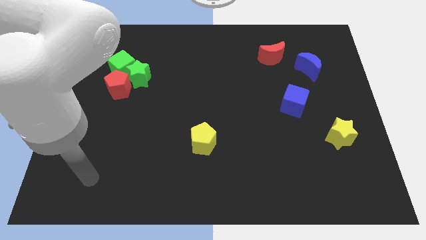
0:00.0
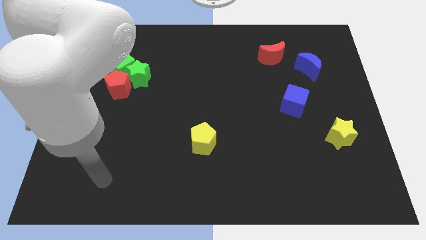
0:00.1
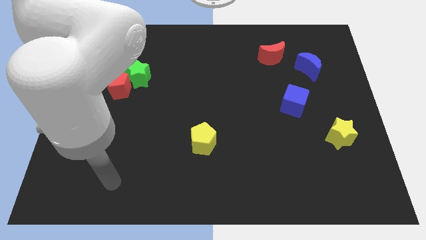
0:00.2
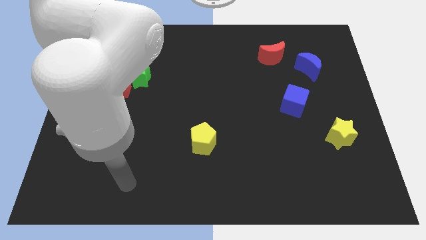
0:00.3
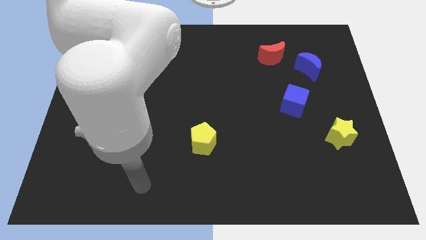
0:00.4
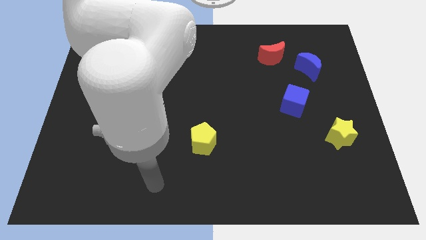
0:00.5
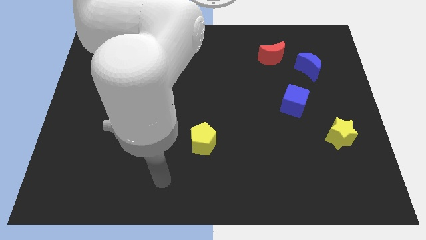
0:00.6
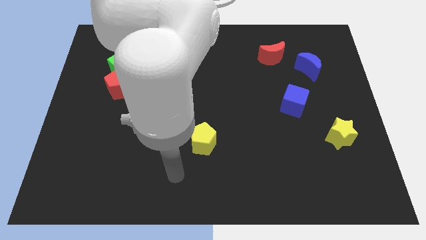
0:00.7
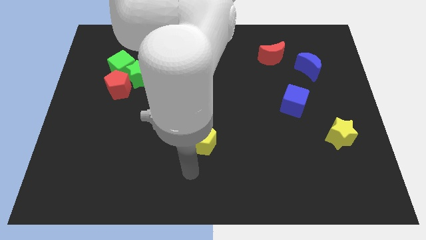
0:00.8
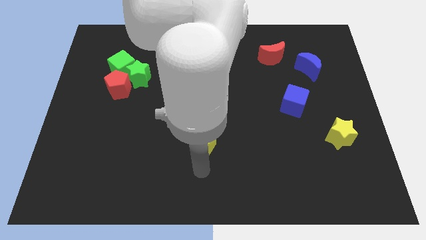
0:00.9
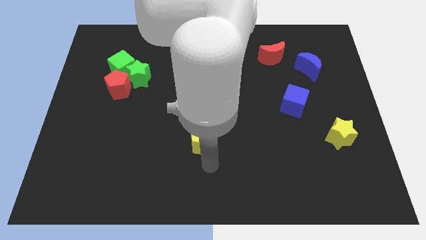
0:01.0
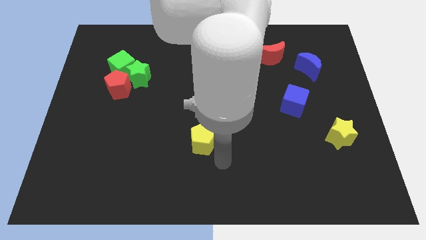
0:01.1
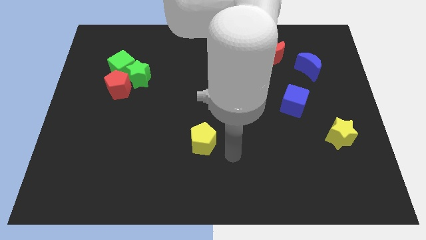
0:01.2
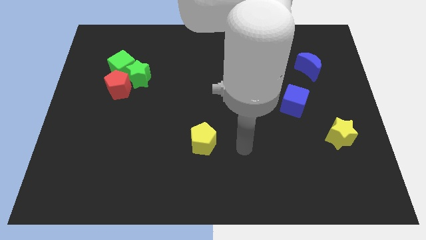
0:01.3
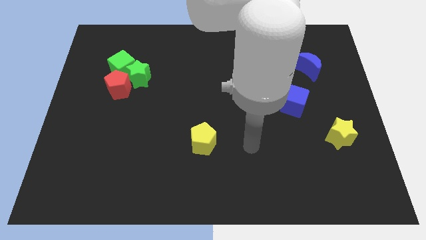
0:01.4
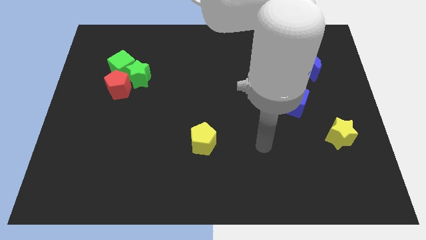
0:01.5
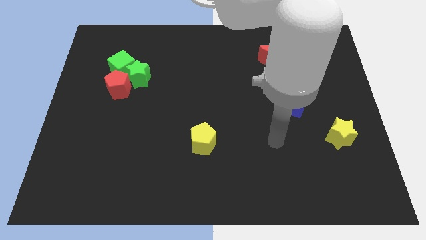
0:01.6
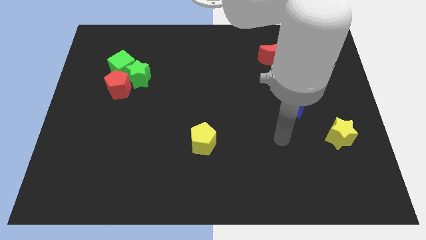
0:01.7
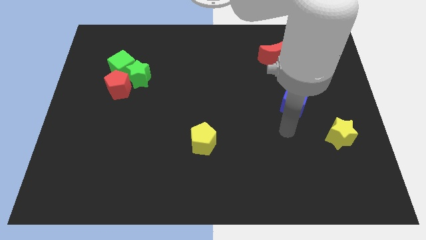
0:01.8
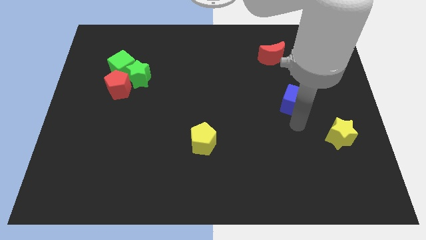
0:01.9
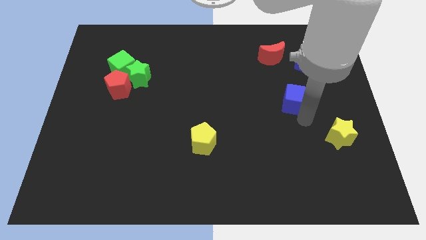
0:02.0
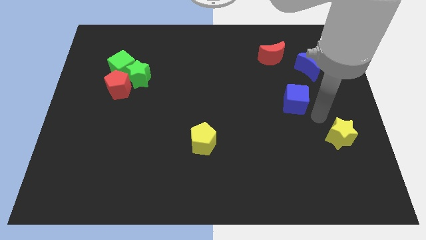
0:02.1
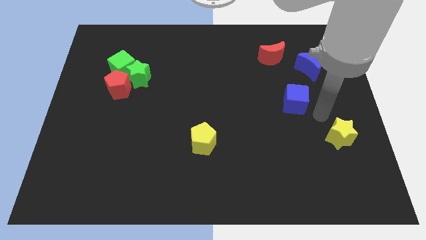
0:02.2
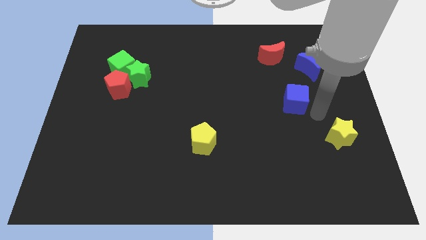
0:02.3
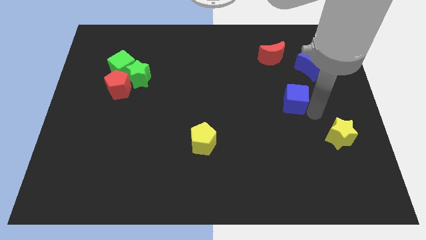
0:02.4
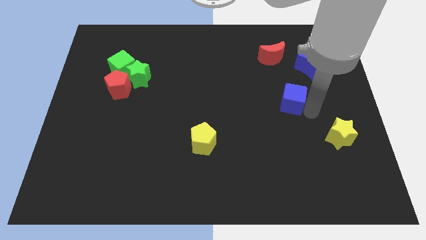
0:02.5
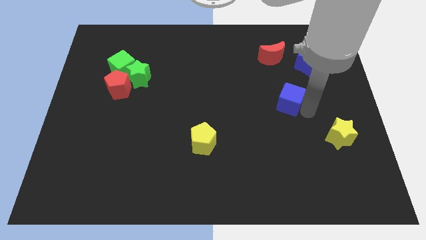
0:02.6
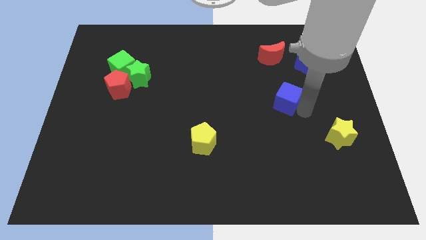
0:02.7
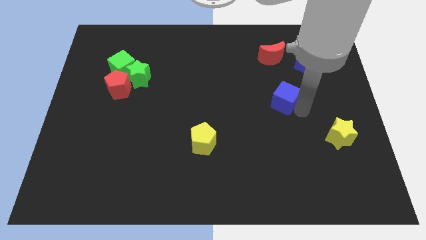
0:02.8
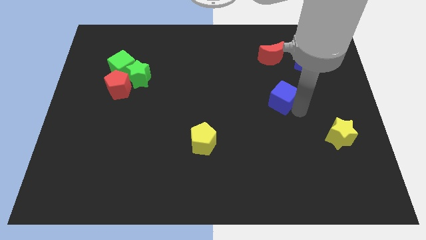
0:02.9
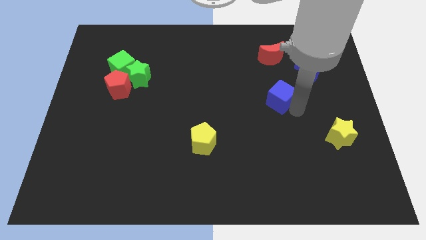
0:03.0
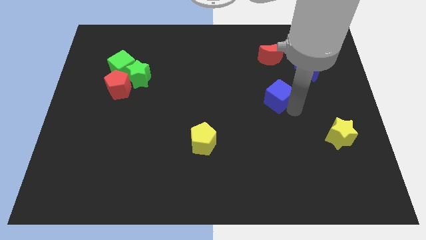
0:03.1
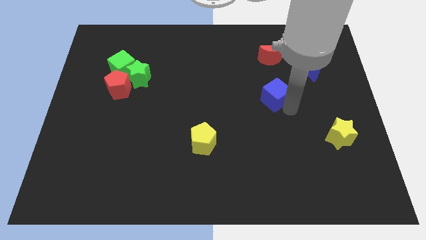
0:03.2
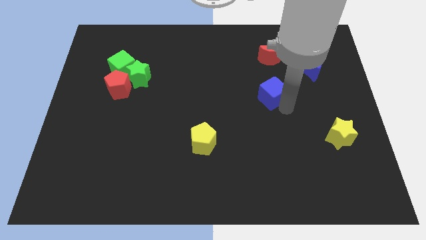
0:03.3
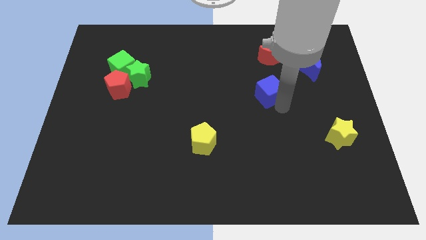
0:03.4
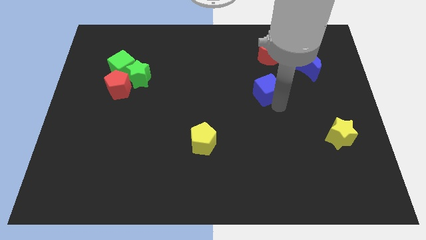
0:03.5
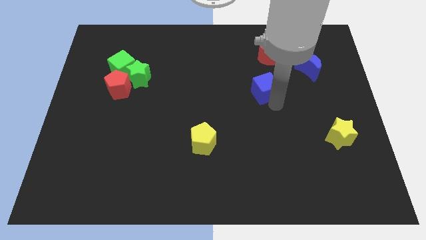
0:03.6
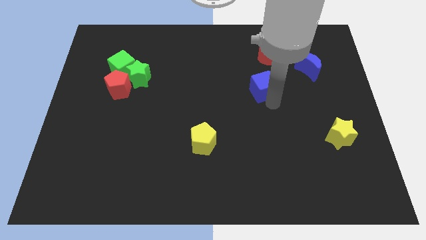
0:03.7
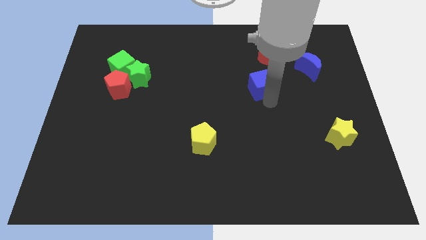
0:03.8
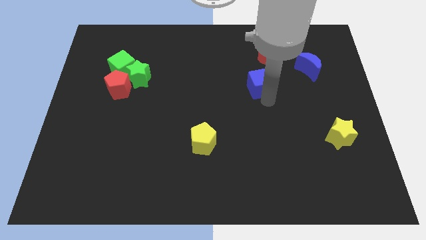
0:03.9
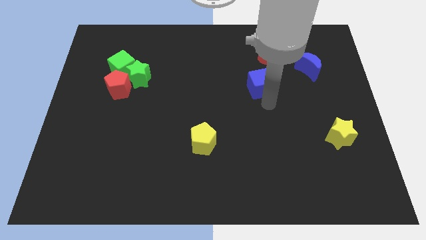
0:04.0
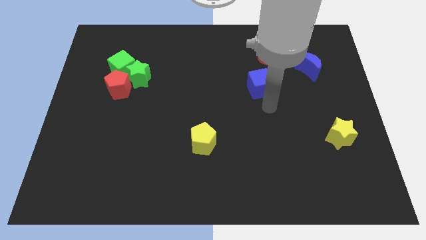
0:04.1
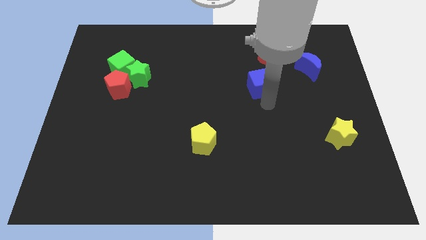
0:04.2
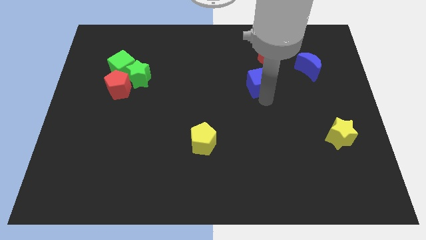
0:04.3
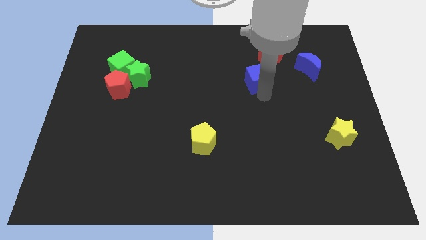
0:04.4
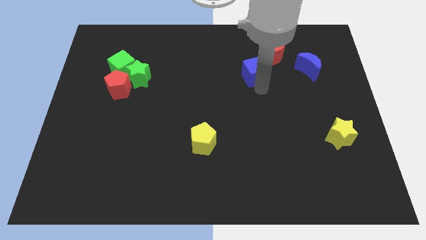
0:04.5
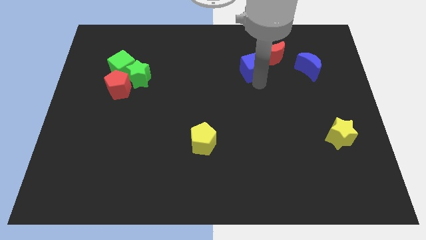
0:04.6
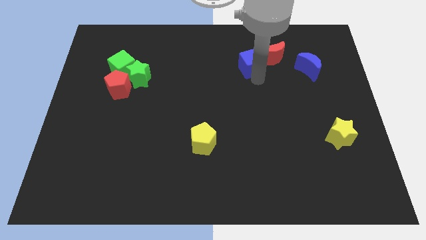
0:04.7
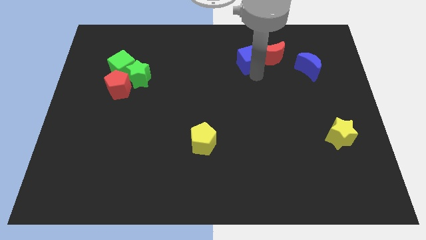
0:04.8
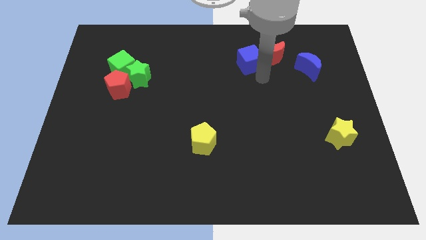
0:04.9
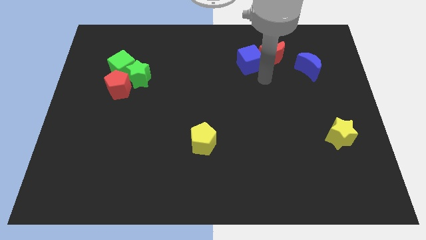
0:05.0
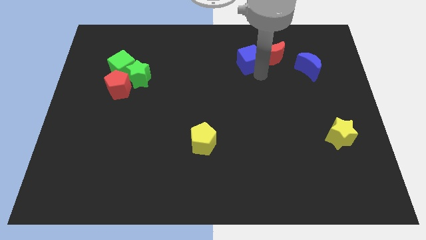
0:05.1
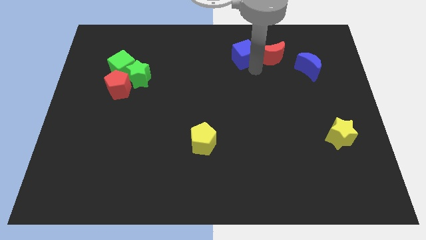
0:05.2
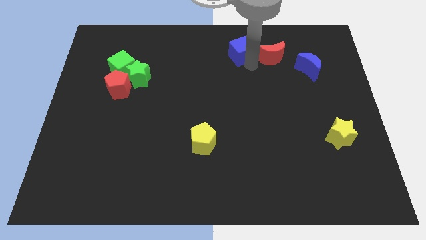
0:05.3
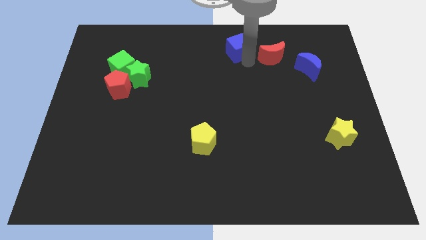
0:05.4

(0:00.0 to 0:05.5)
push the blue cube to the top

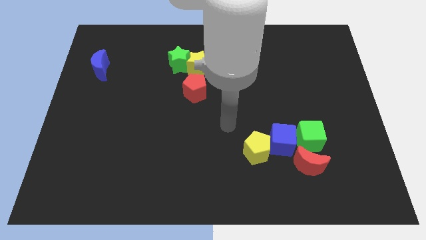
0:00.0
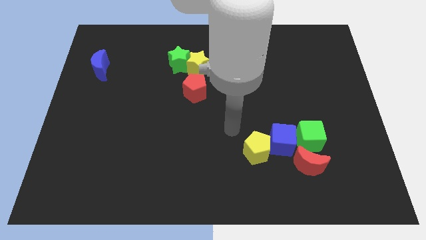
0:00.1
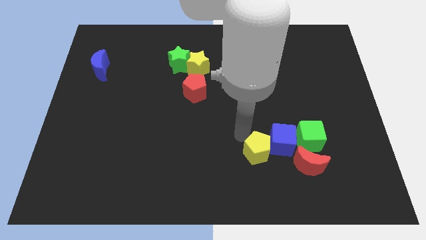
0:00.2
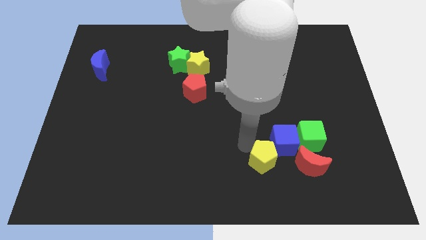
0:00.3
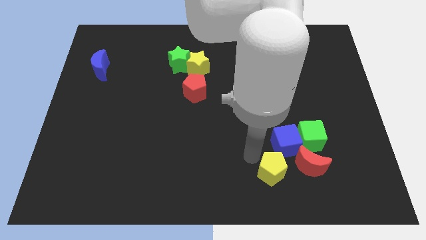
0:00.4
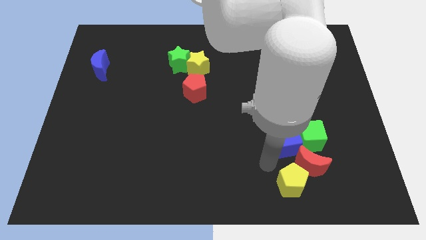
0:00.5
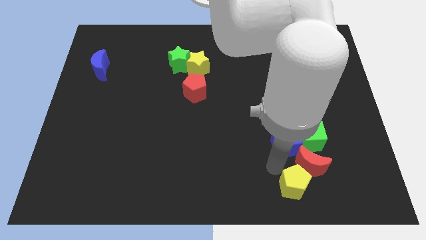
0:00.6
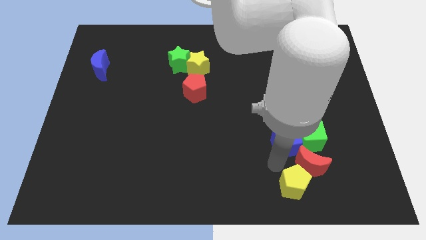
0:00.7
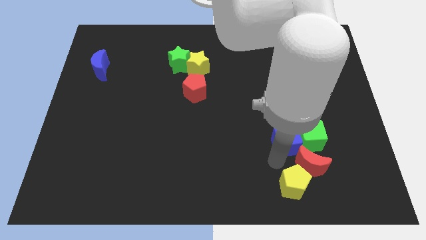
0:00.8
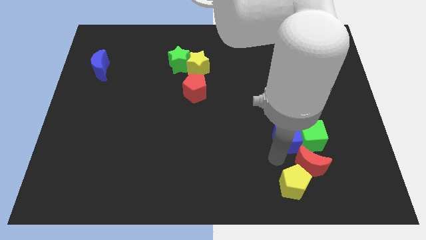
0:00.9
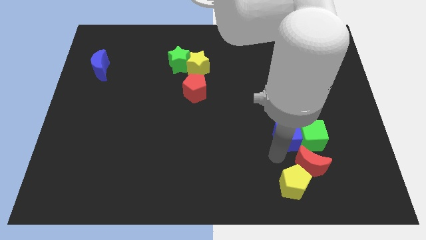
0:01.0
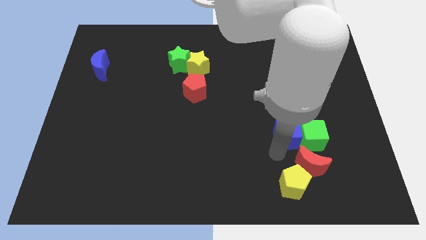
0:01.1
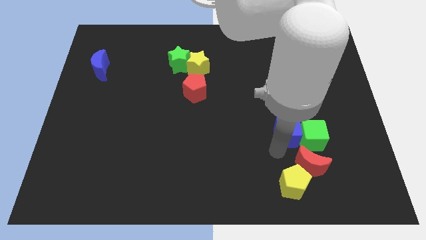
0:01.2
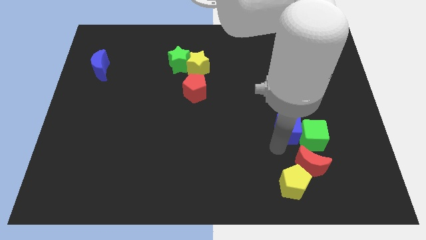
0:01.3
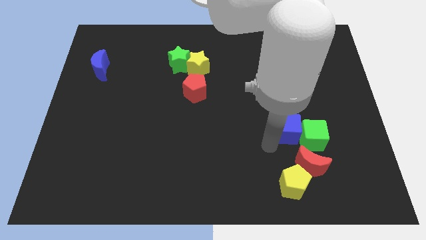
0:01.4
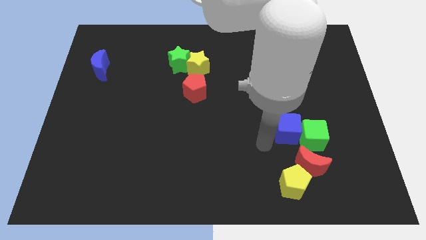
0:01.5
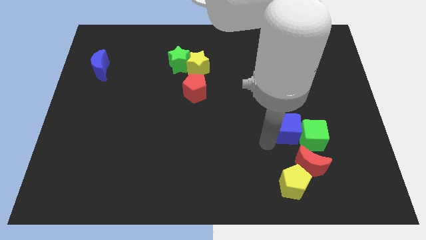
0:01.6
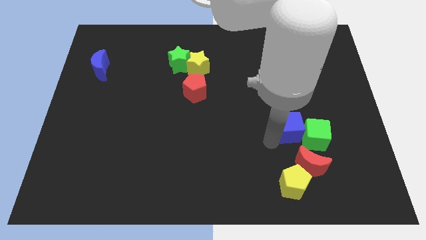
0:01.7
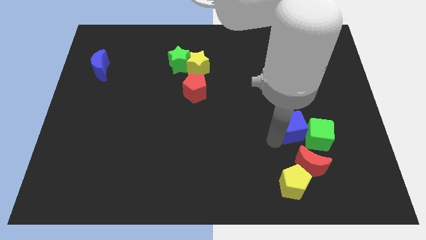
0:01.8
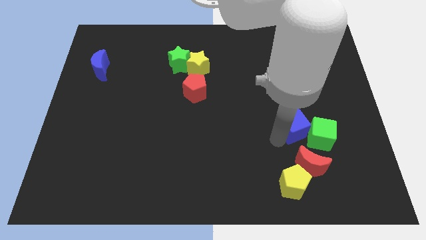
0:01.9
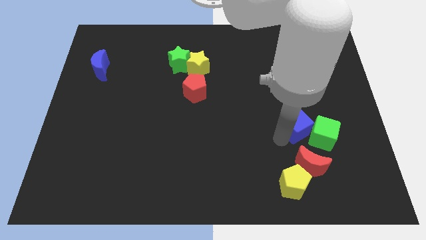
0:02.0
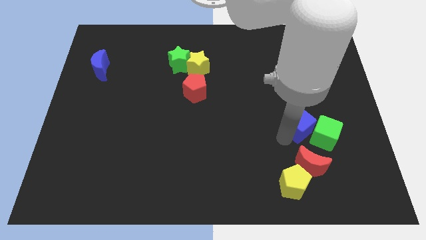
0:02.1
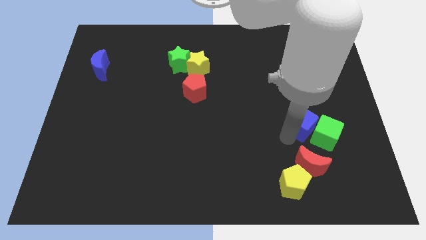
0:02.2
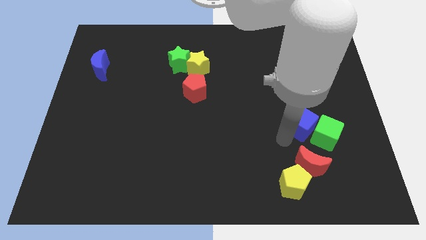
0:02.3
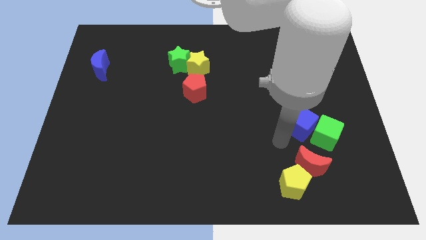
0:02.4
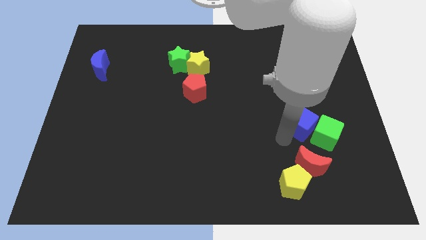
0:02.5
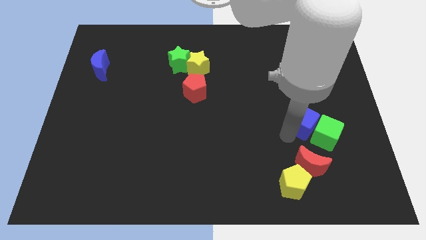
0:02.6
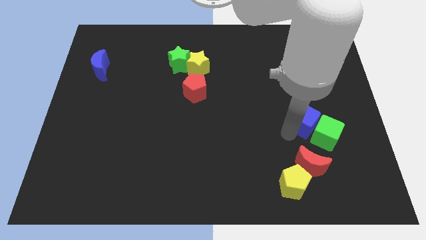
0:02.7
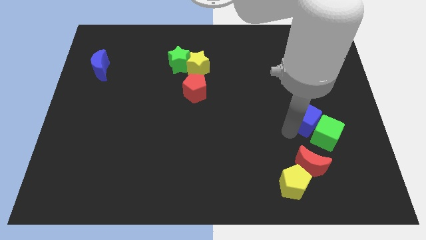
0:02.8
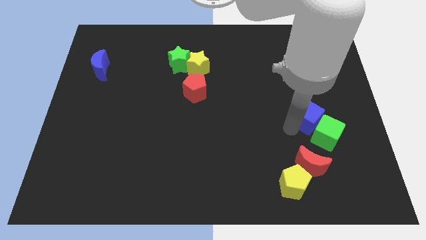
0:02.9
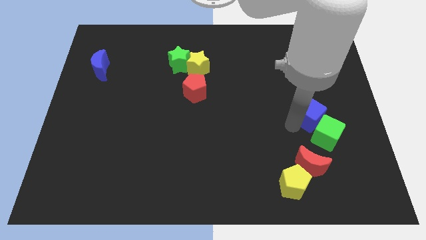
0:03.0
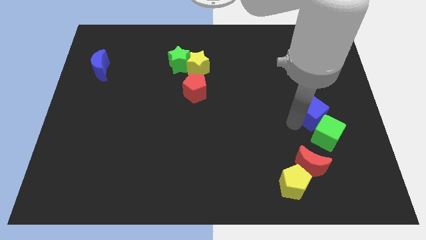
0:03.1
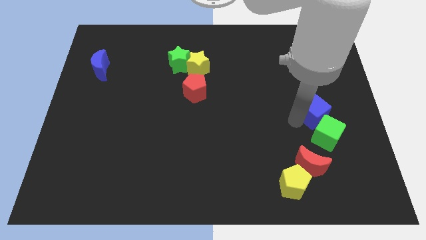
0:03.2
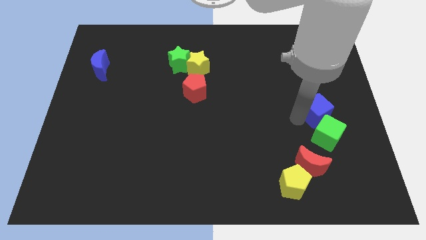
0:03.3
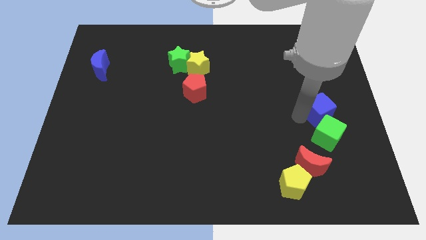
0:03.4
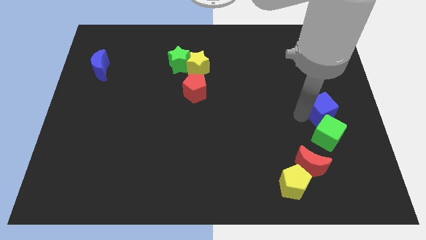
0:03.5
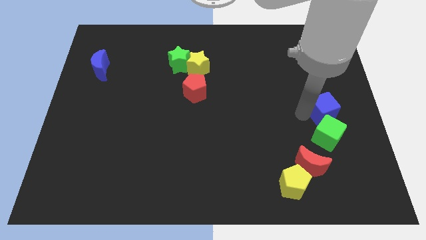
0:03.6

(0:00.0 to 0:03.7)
put the blue cube to the center right
